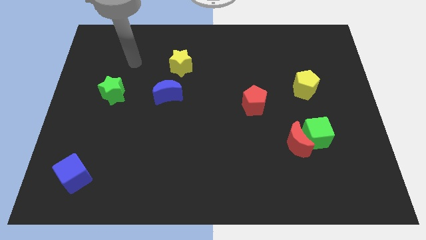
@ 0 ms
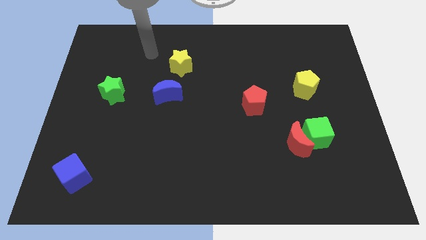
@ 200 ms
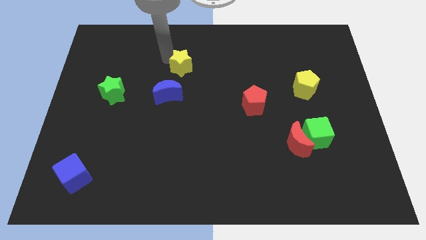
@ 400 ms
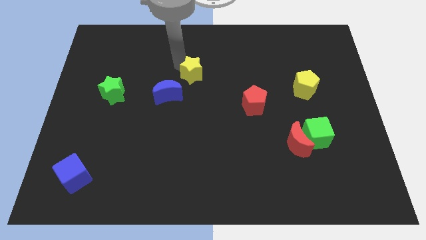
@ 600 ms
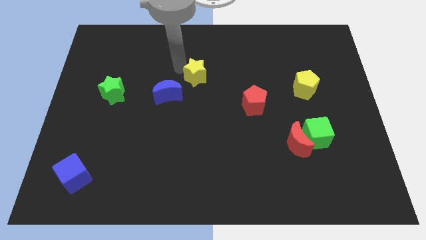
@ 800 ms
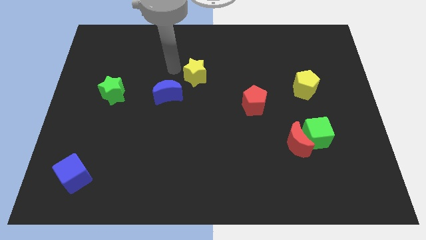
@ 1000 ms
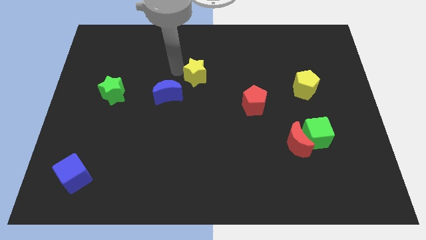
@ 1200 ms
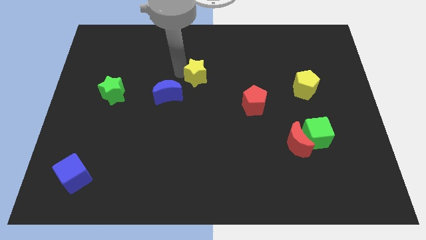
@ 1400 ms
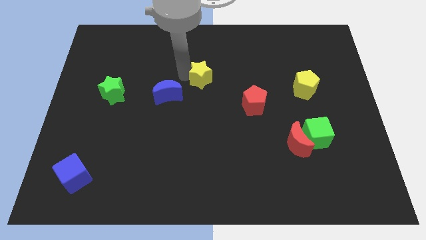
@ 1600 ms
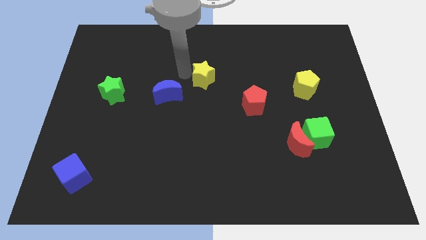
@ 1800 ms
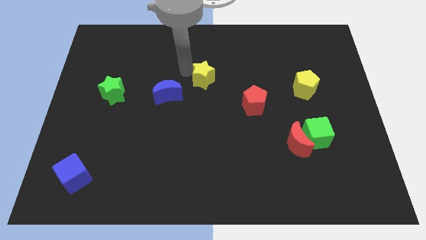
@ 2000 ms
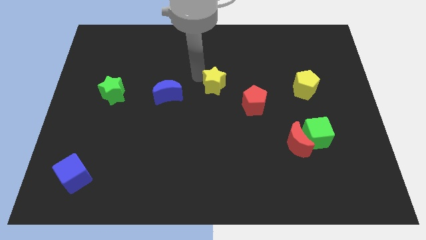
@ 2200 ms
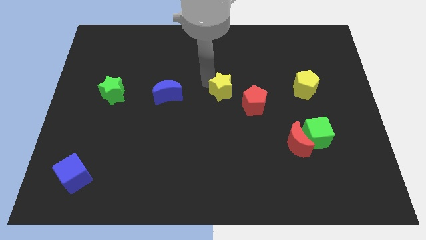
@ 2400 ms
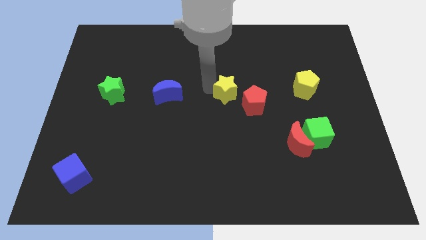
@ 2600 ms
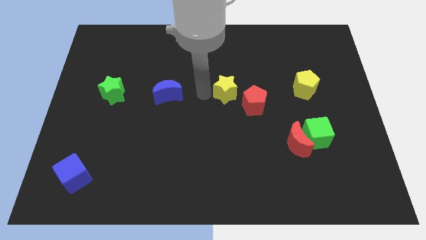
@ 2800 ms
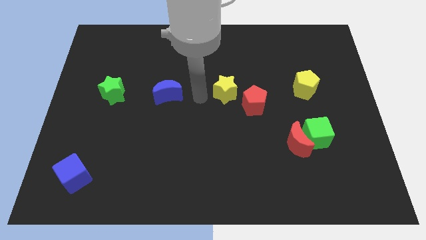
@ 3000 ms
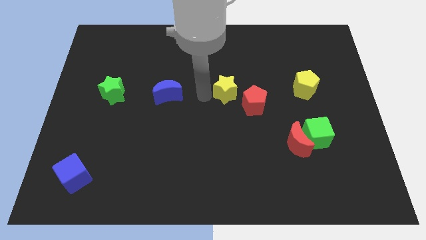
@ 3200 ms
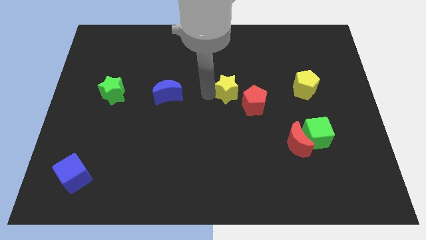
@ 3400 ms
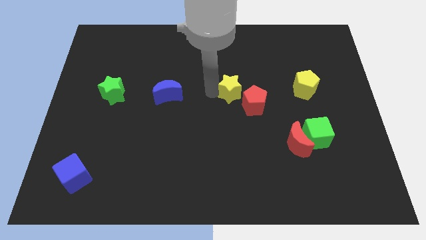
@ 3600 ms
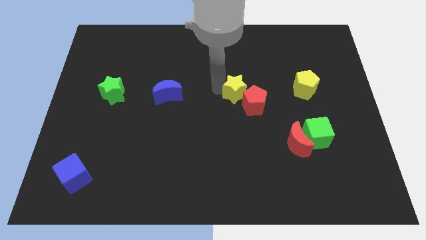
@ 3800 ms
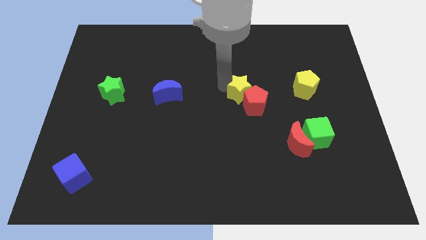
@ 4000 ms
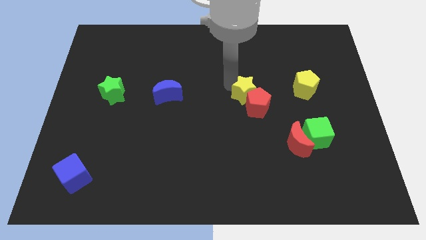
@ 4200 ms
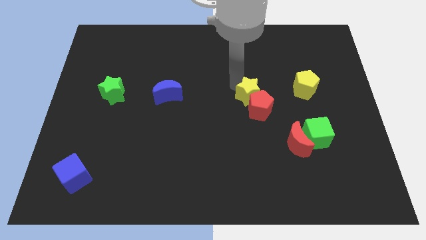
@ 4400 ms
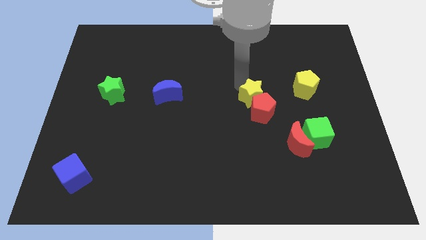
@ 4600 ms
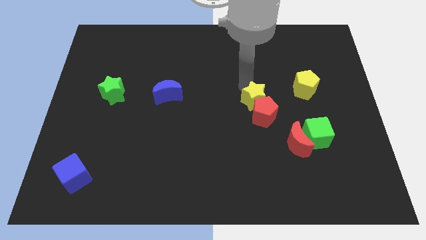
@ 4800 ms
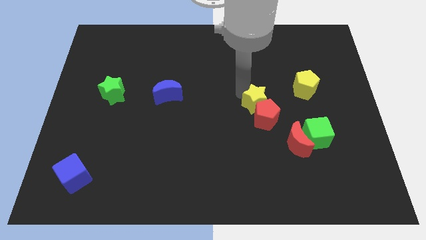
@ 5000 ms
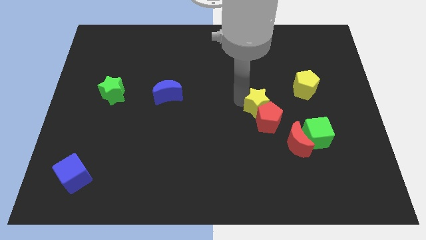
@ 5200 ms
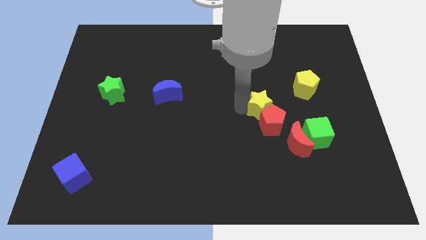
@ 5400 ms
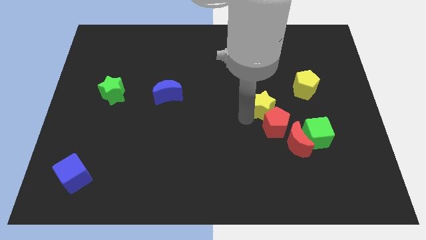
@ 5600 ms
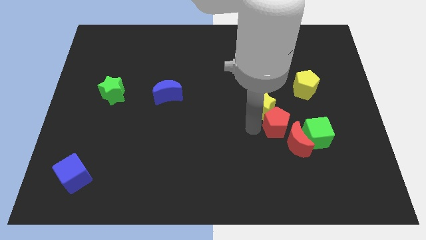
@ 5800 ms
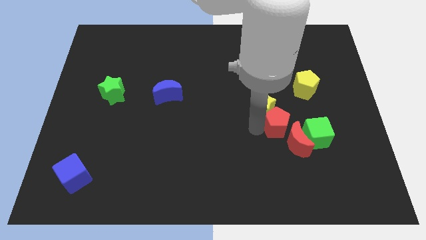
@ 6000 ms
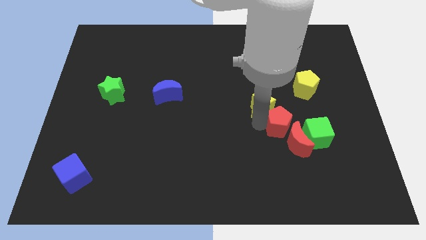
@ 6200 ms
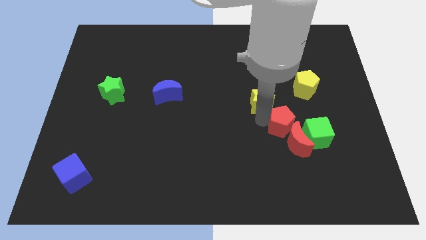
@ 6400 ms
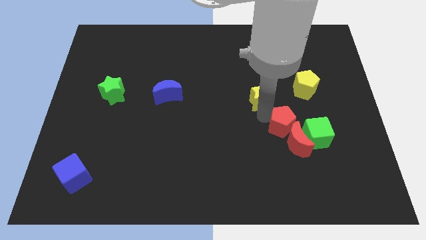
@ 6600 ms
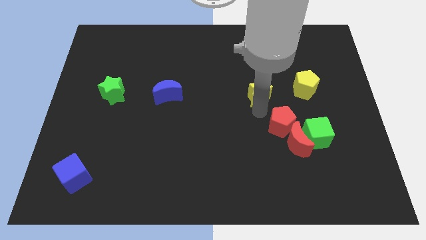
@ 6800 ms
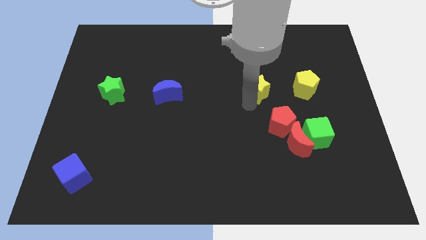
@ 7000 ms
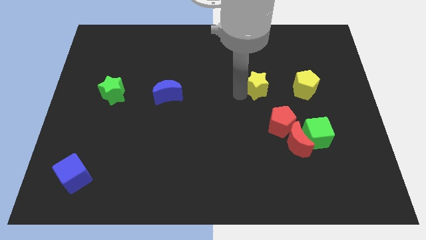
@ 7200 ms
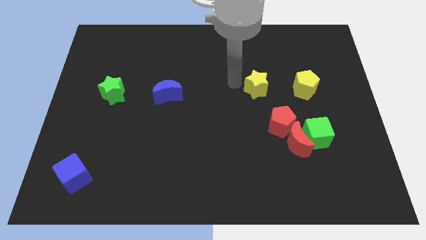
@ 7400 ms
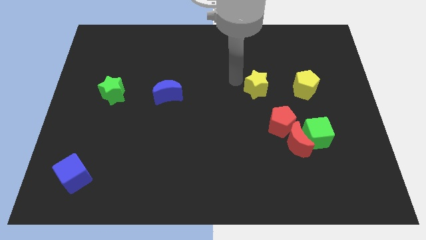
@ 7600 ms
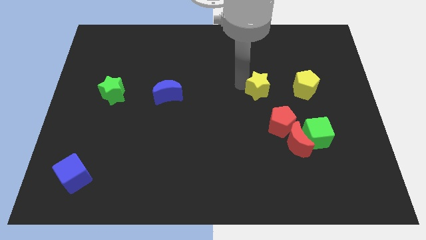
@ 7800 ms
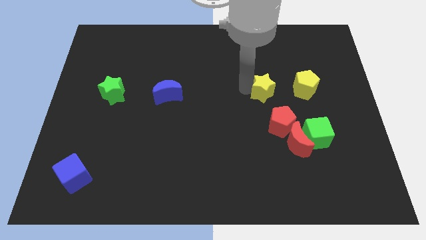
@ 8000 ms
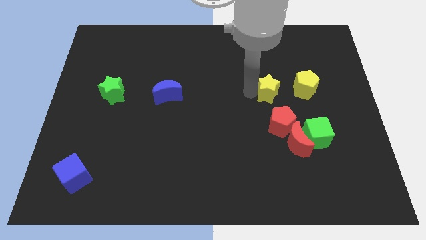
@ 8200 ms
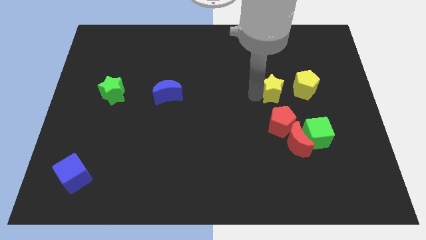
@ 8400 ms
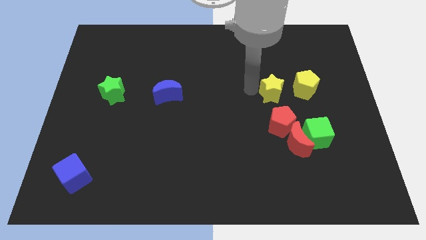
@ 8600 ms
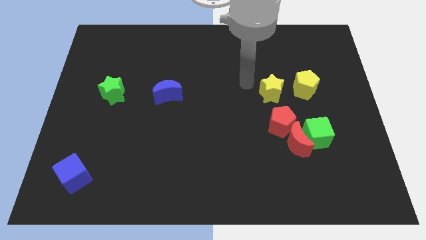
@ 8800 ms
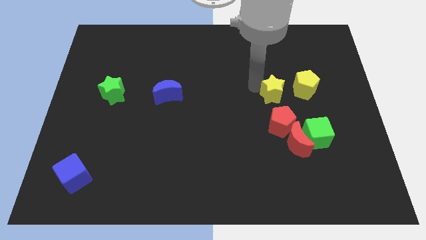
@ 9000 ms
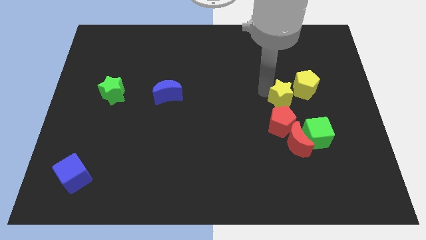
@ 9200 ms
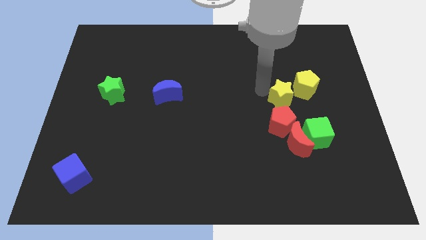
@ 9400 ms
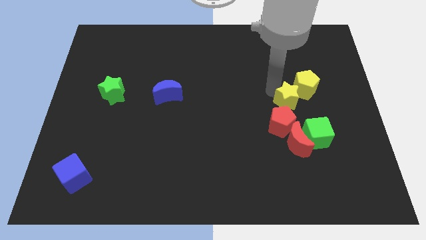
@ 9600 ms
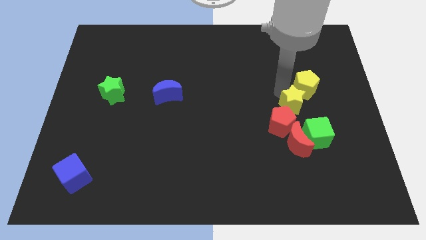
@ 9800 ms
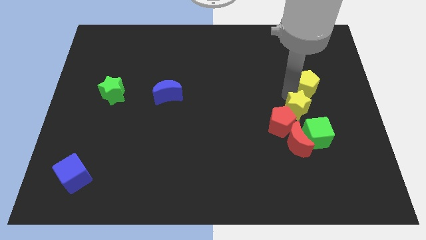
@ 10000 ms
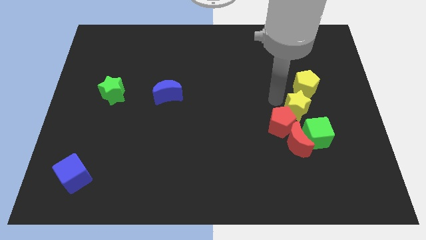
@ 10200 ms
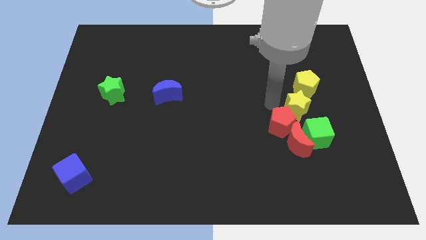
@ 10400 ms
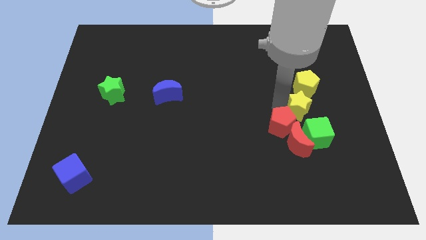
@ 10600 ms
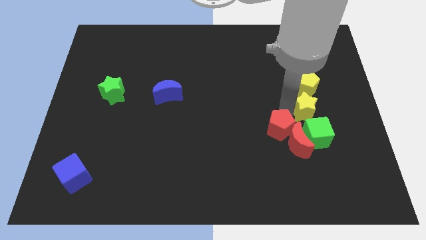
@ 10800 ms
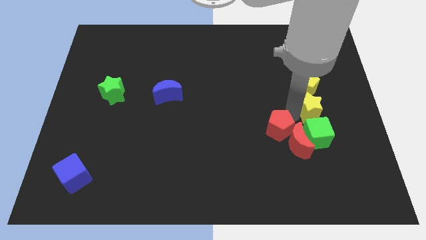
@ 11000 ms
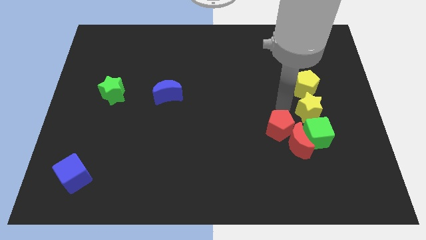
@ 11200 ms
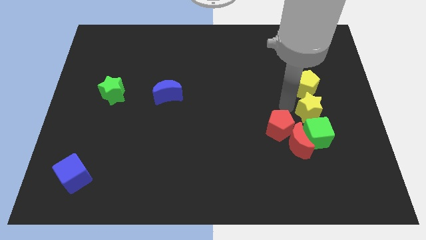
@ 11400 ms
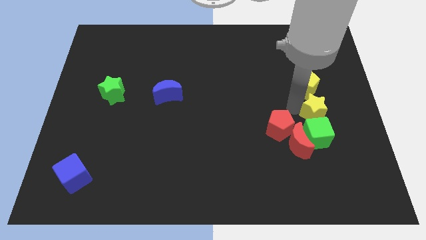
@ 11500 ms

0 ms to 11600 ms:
slide the yellow star diagonally up and to the right of the green cube

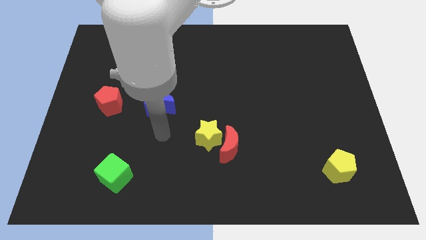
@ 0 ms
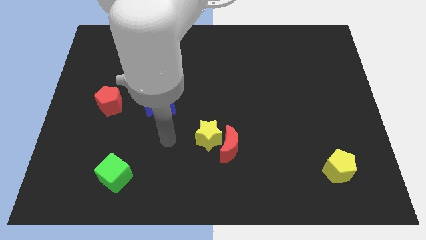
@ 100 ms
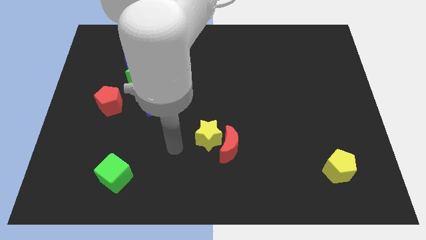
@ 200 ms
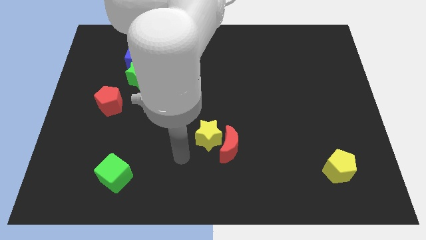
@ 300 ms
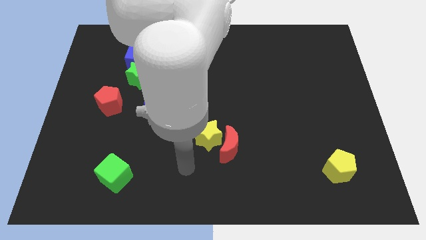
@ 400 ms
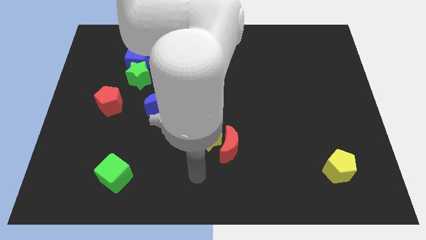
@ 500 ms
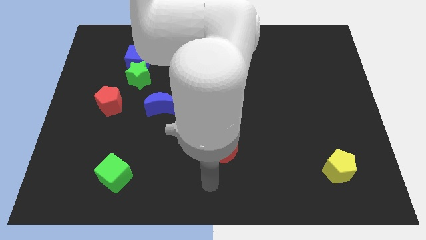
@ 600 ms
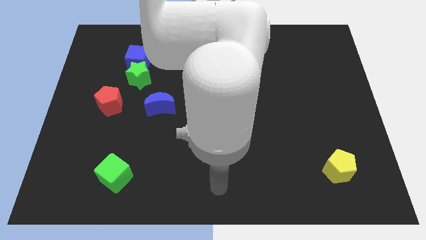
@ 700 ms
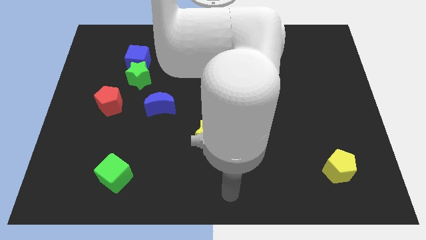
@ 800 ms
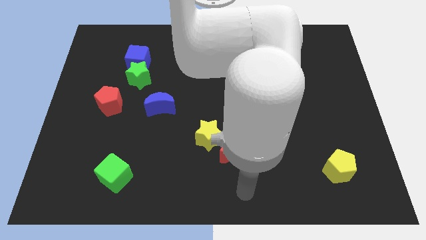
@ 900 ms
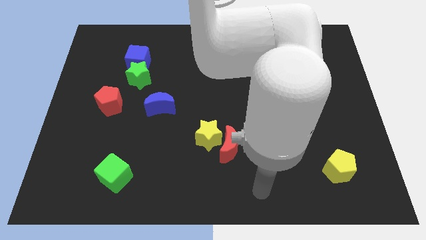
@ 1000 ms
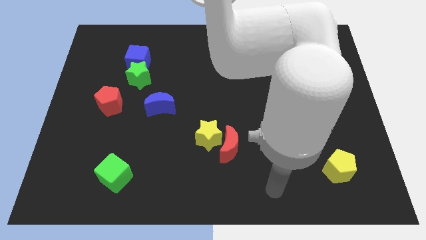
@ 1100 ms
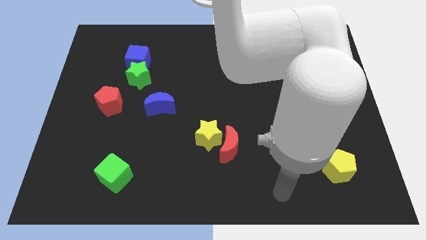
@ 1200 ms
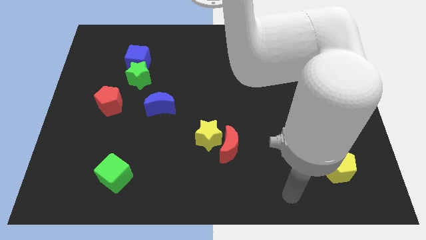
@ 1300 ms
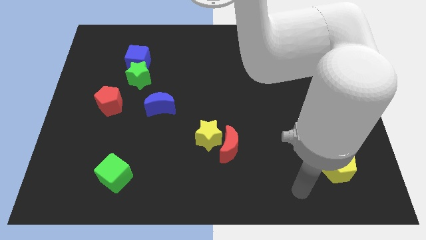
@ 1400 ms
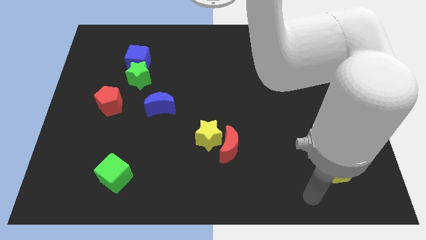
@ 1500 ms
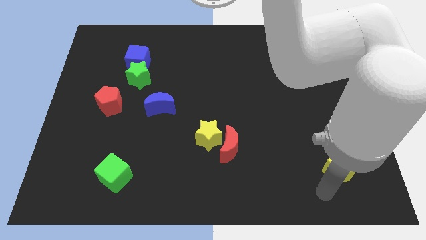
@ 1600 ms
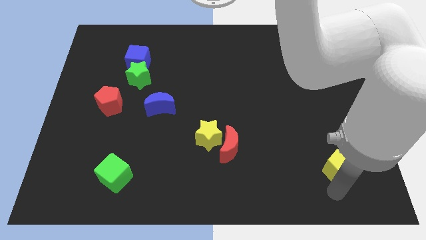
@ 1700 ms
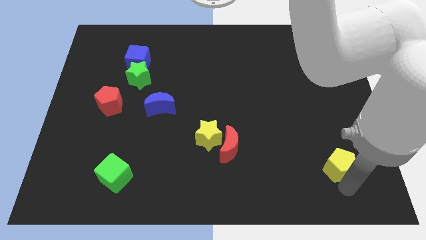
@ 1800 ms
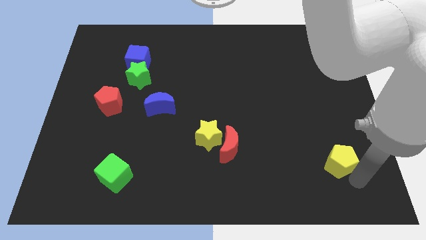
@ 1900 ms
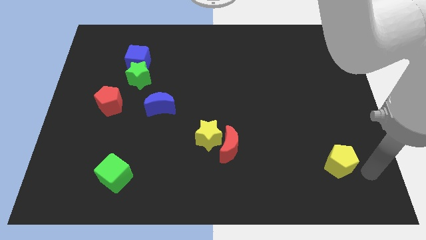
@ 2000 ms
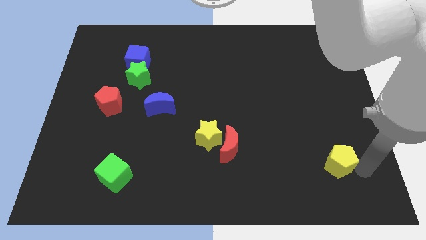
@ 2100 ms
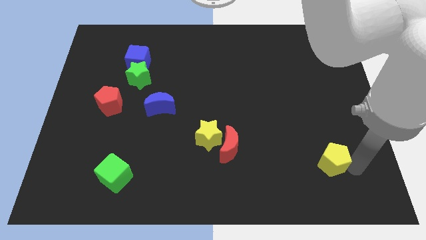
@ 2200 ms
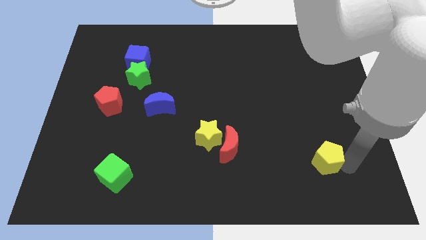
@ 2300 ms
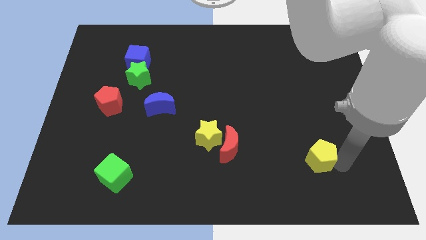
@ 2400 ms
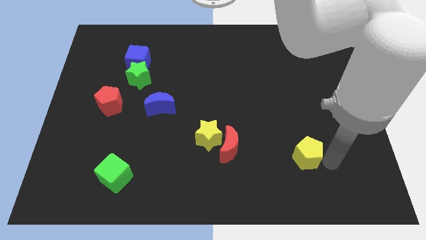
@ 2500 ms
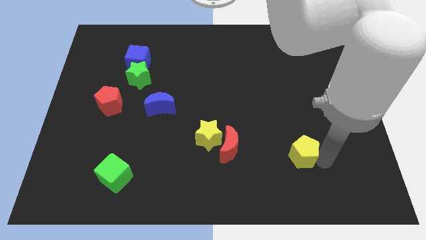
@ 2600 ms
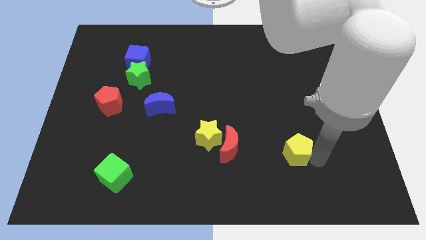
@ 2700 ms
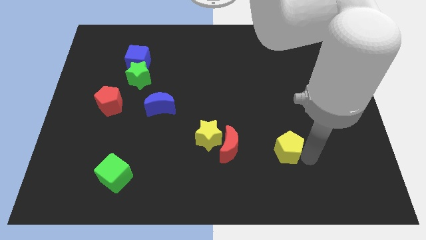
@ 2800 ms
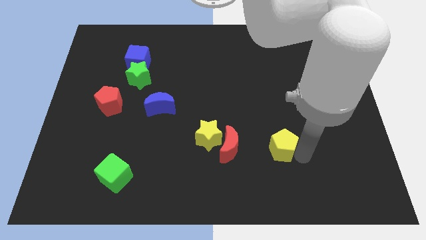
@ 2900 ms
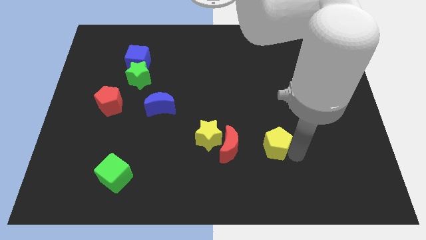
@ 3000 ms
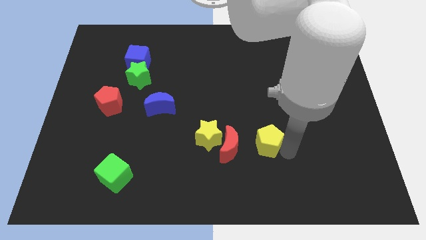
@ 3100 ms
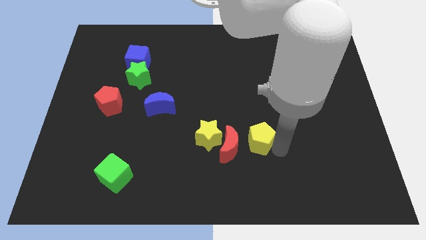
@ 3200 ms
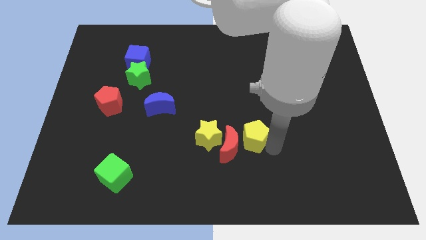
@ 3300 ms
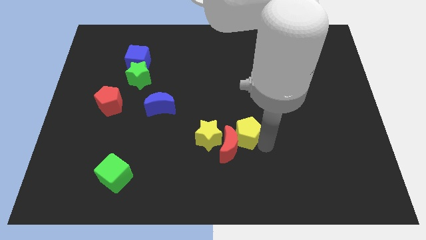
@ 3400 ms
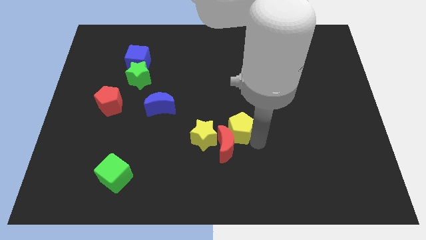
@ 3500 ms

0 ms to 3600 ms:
put the yellow pentagon to the top right of the yellow star
